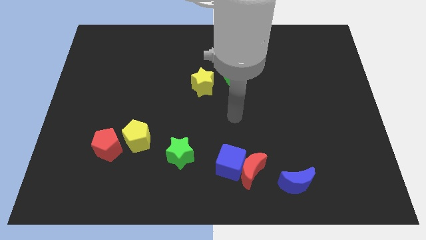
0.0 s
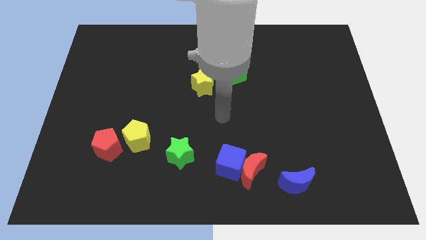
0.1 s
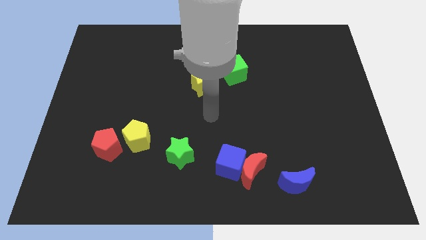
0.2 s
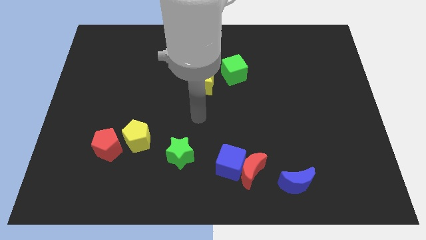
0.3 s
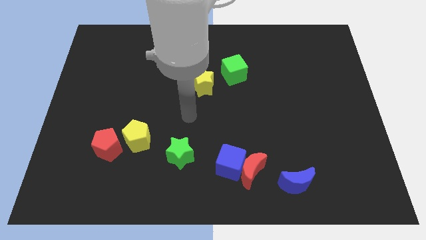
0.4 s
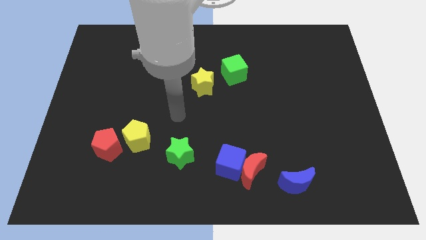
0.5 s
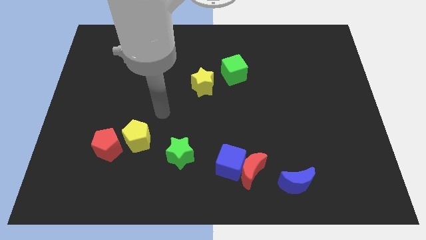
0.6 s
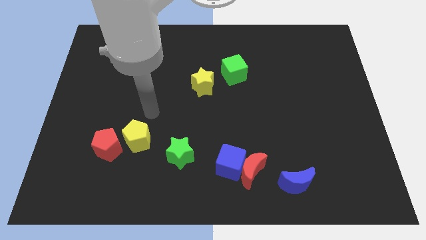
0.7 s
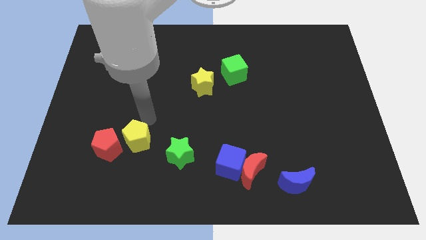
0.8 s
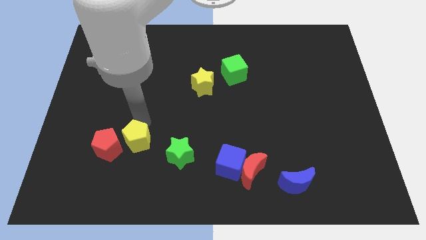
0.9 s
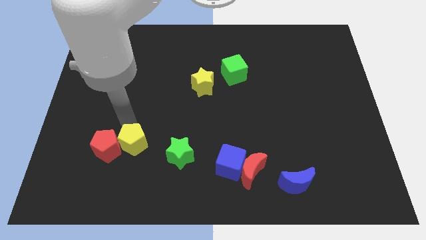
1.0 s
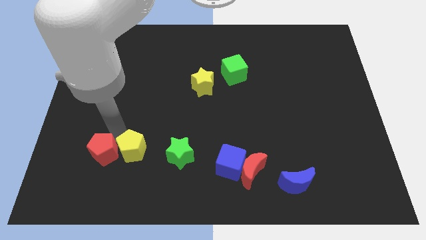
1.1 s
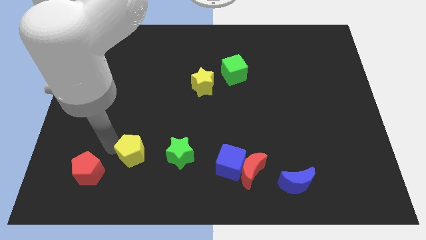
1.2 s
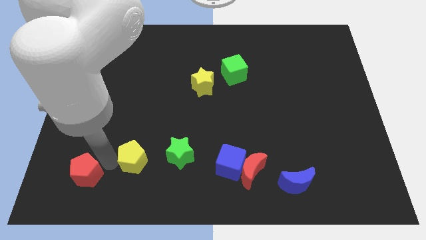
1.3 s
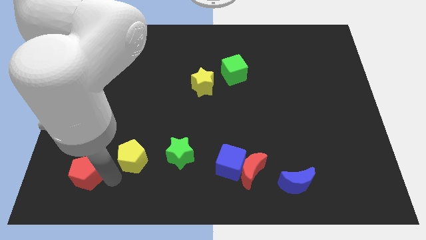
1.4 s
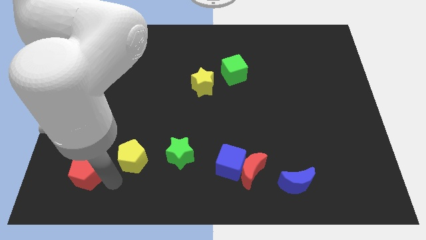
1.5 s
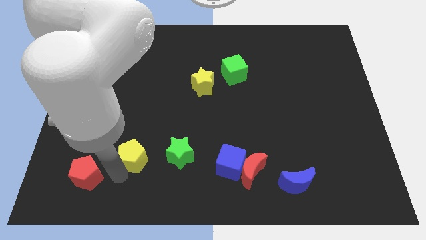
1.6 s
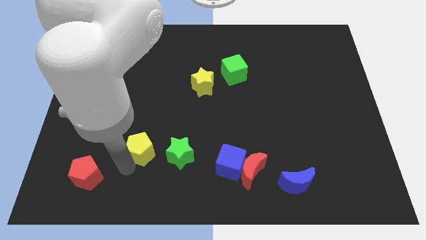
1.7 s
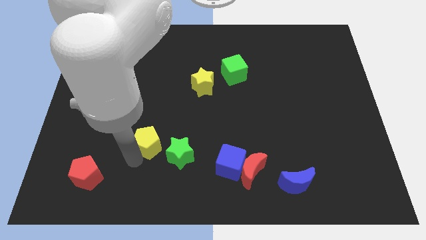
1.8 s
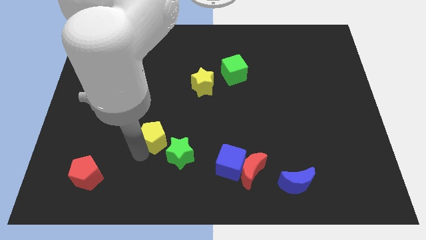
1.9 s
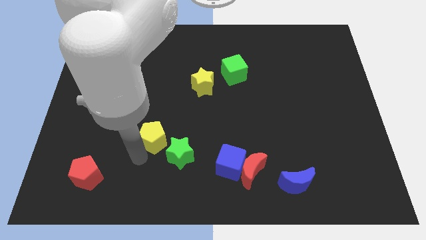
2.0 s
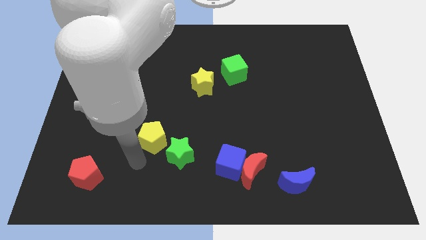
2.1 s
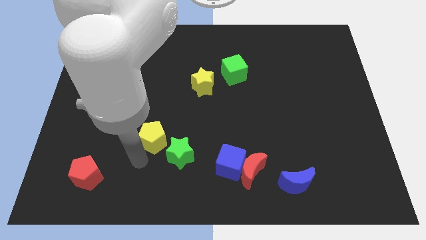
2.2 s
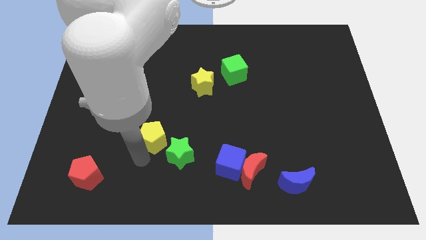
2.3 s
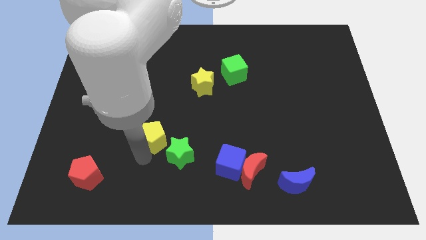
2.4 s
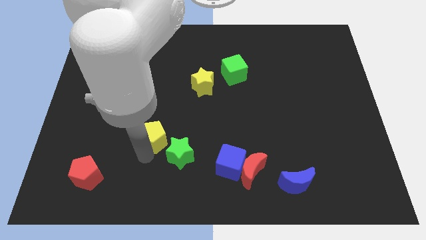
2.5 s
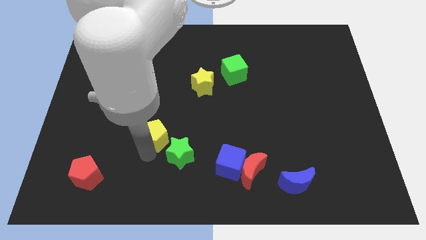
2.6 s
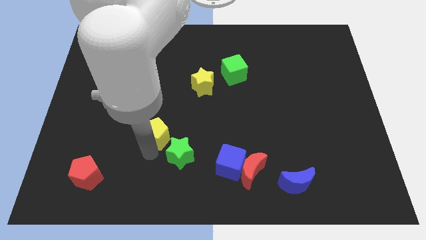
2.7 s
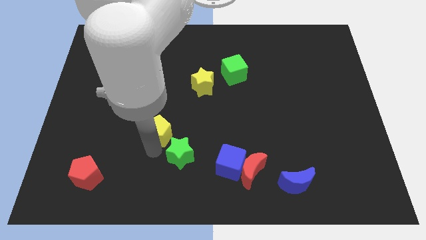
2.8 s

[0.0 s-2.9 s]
slide the yellow pentagon to the top of the green star

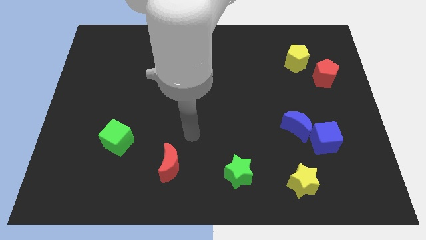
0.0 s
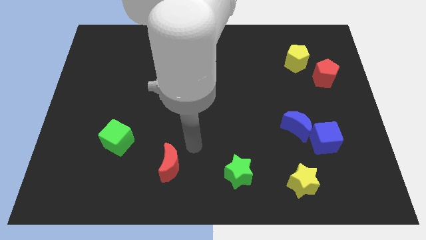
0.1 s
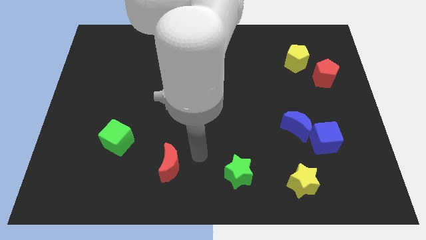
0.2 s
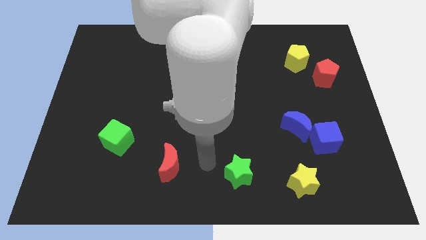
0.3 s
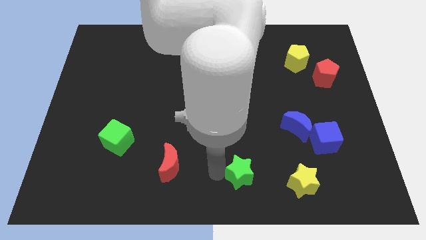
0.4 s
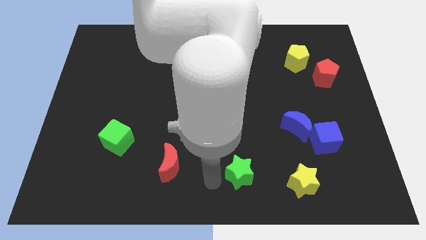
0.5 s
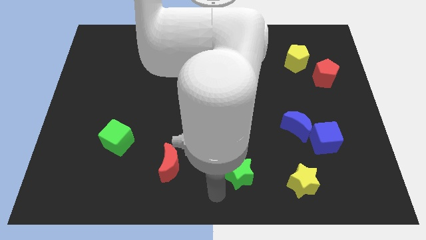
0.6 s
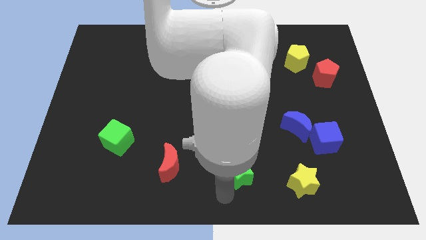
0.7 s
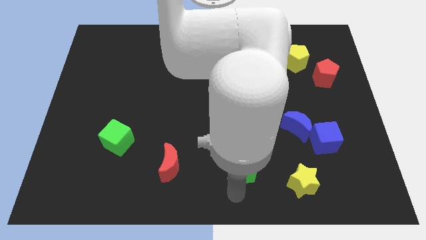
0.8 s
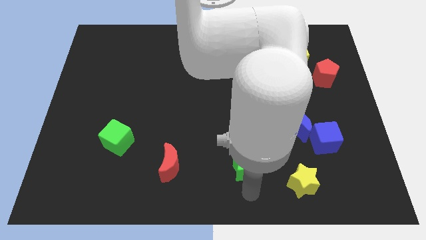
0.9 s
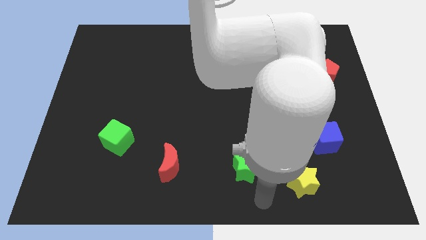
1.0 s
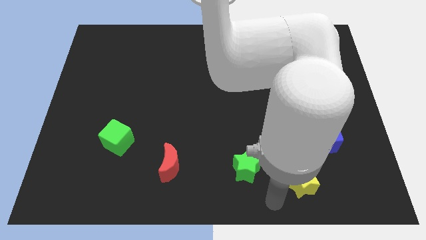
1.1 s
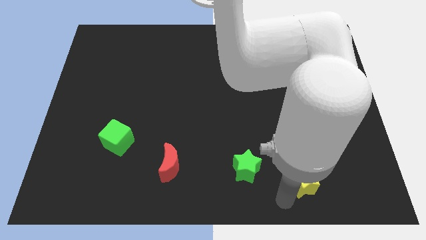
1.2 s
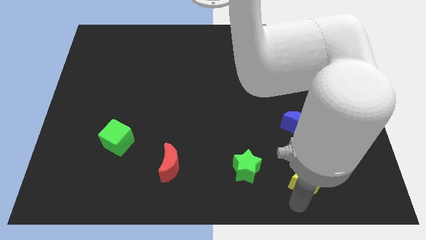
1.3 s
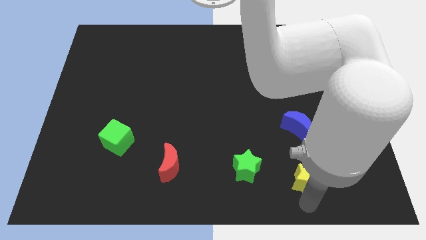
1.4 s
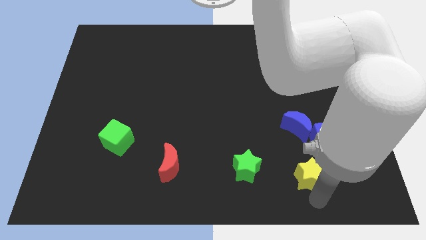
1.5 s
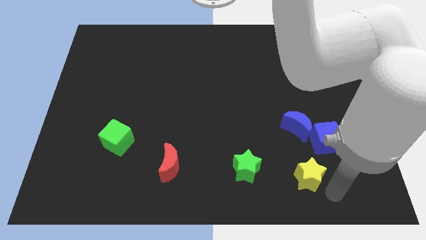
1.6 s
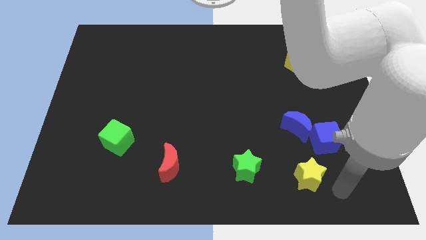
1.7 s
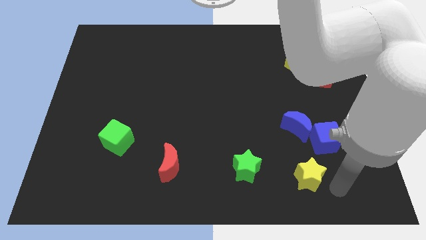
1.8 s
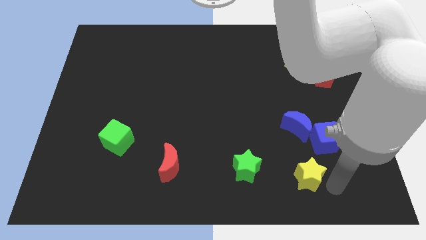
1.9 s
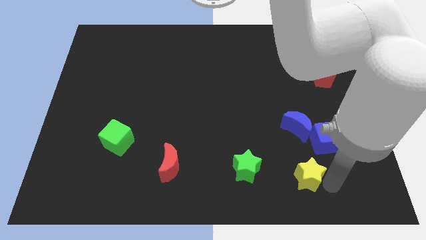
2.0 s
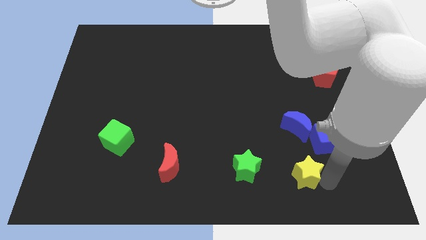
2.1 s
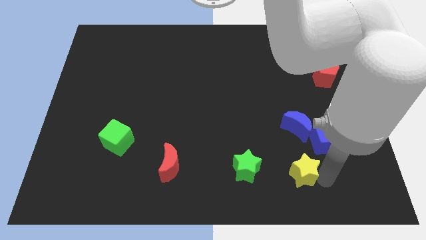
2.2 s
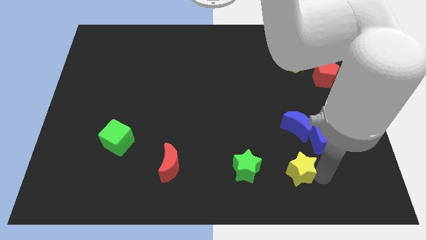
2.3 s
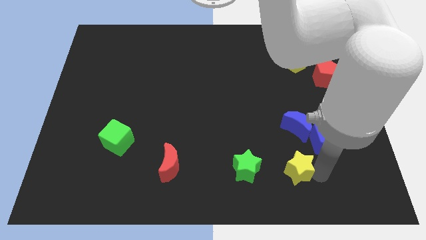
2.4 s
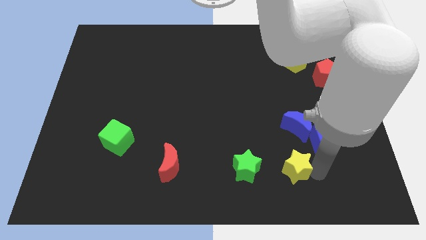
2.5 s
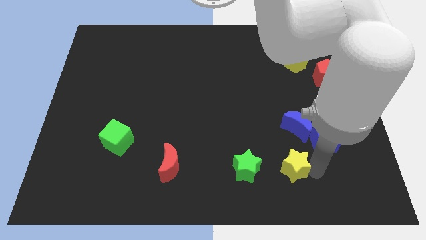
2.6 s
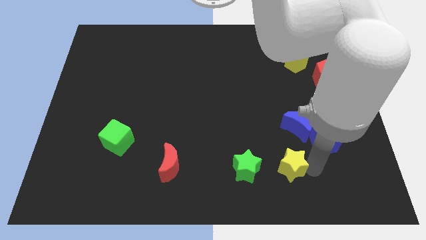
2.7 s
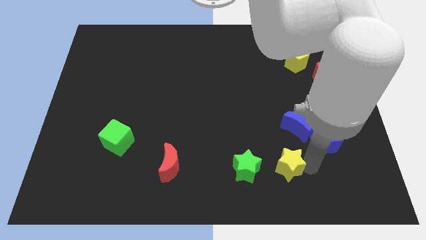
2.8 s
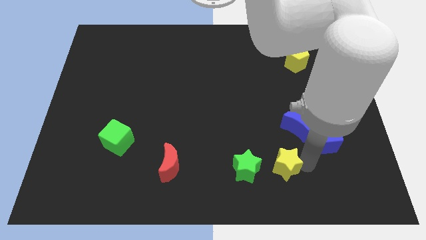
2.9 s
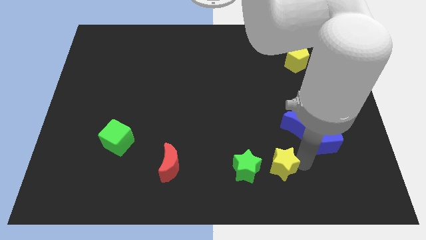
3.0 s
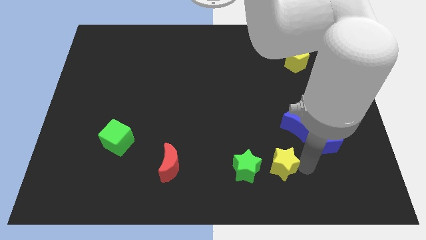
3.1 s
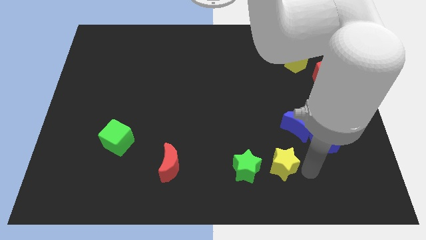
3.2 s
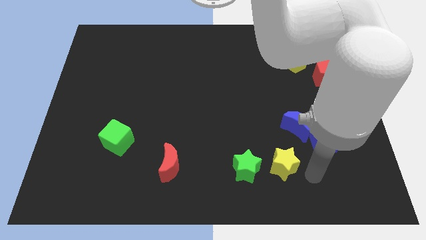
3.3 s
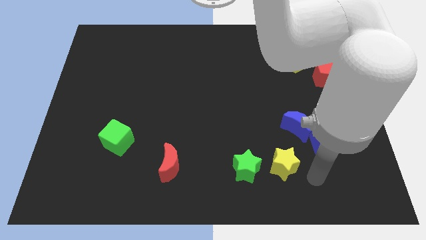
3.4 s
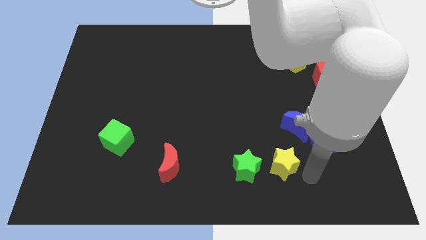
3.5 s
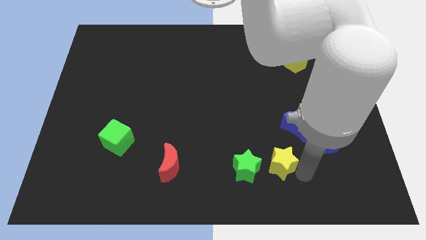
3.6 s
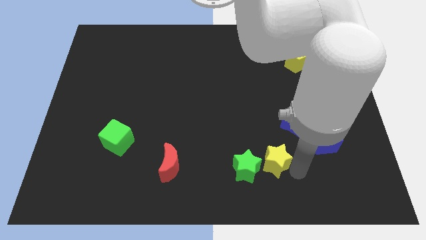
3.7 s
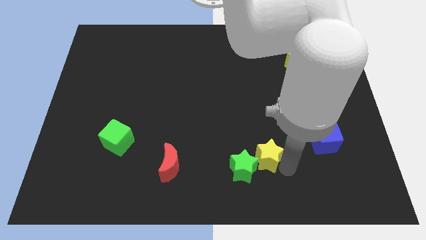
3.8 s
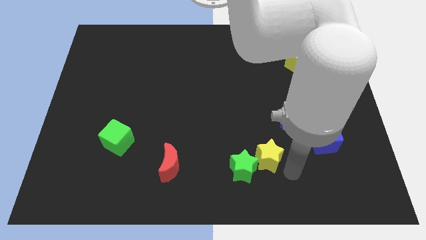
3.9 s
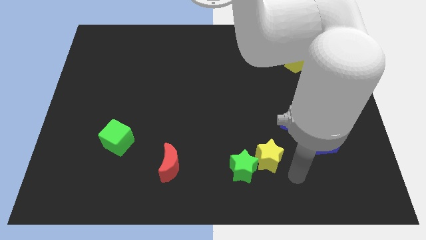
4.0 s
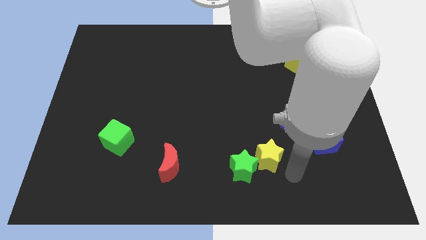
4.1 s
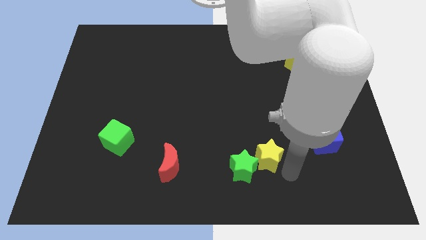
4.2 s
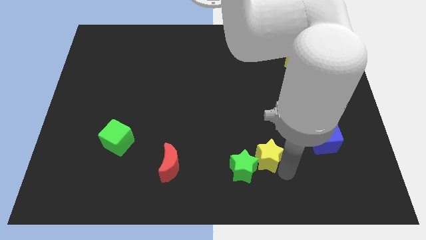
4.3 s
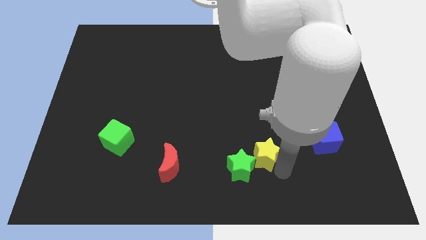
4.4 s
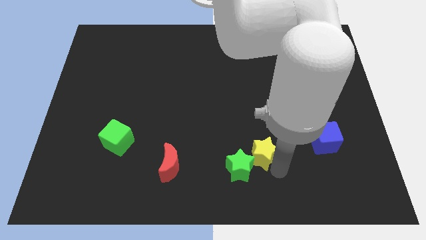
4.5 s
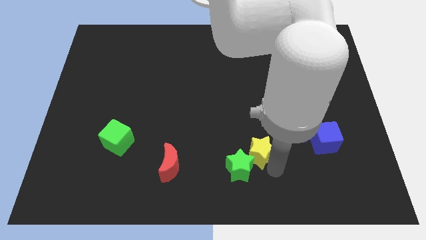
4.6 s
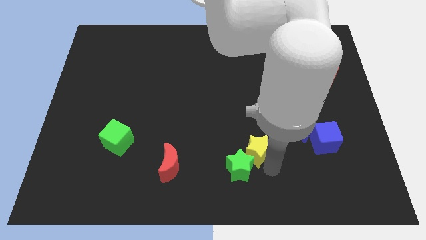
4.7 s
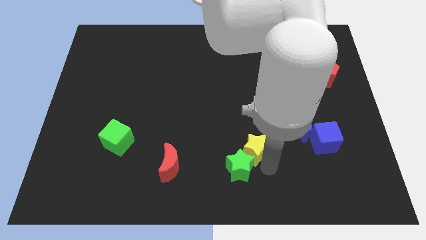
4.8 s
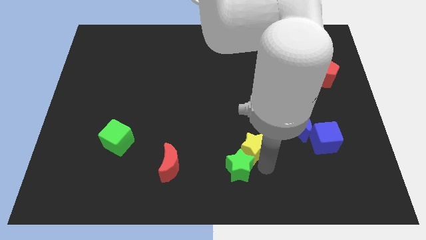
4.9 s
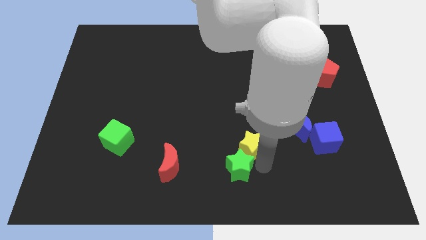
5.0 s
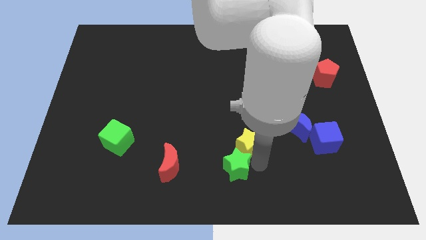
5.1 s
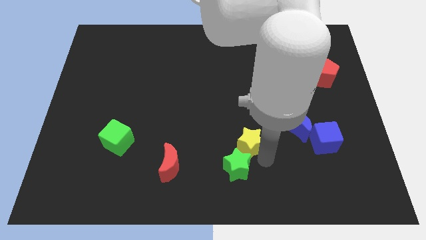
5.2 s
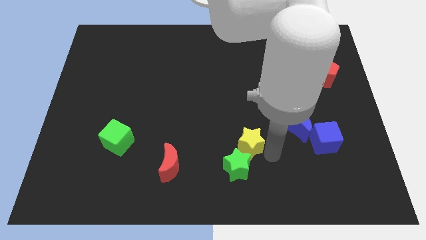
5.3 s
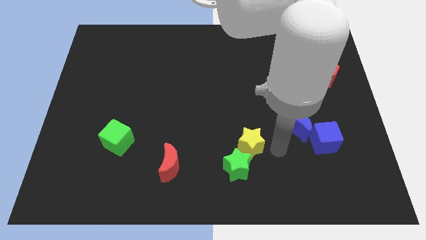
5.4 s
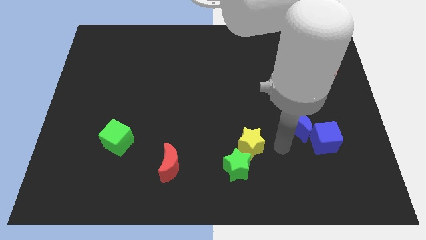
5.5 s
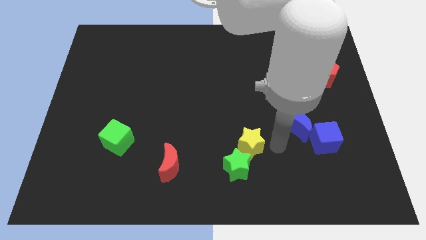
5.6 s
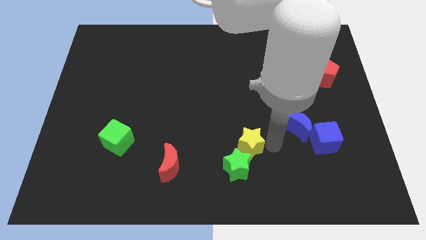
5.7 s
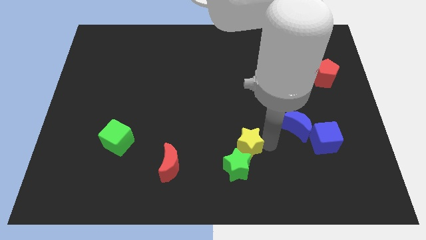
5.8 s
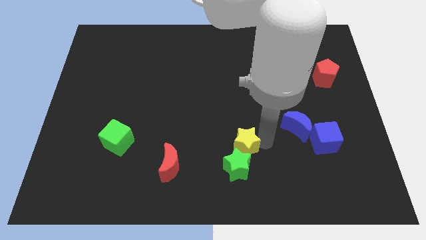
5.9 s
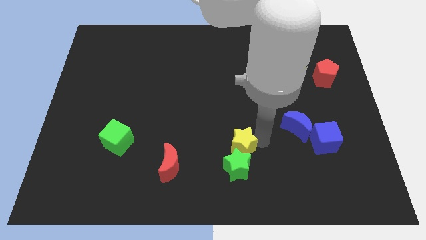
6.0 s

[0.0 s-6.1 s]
move the yellow star diagonally up and to the left of the green star
